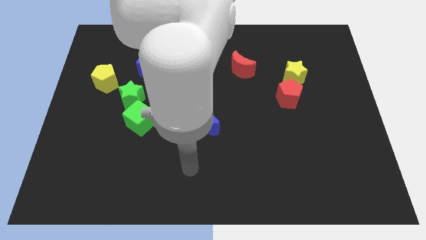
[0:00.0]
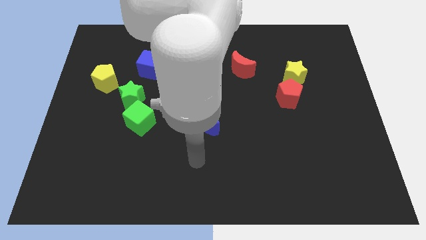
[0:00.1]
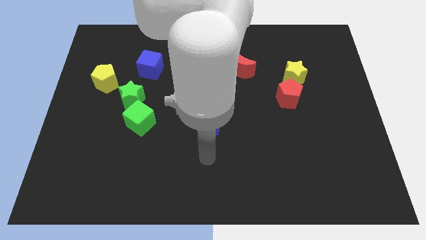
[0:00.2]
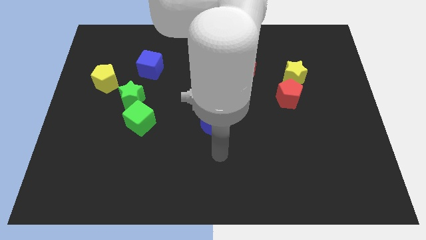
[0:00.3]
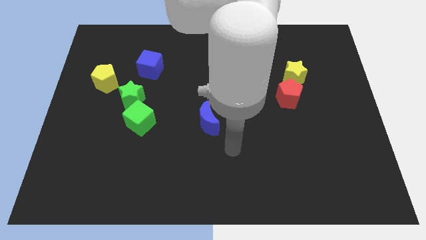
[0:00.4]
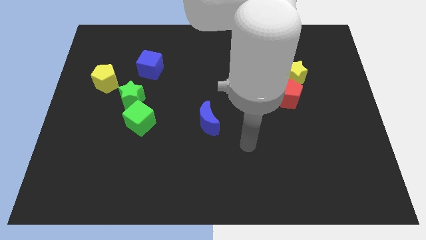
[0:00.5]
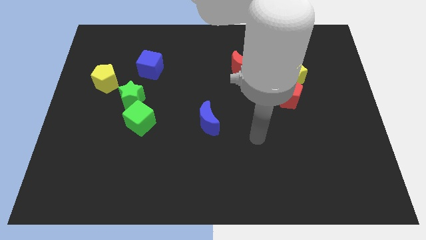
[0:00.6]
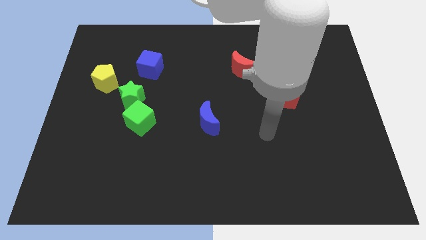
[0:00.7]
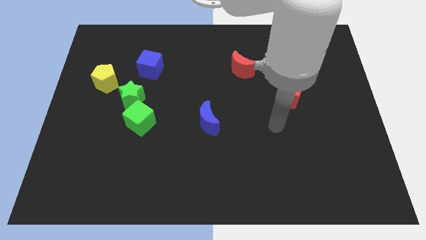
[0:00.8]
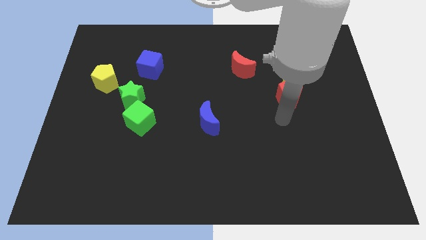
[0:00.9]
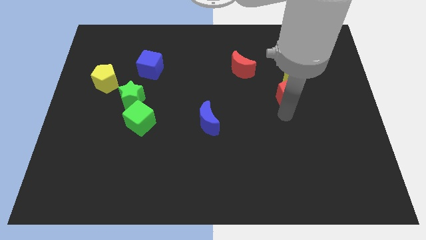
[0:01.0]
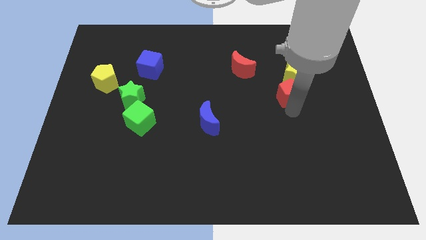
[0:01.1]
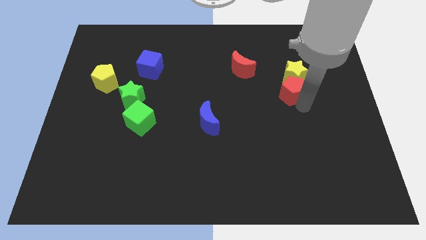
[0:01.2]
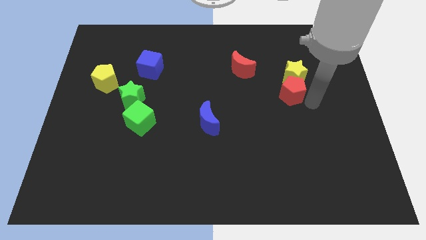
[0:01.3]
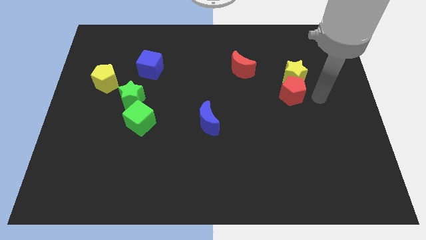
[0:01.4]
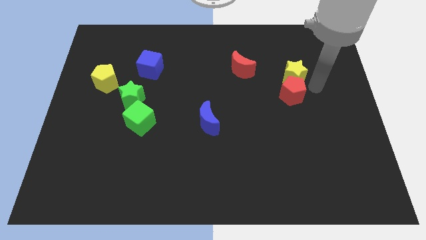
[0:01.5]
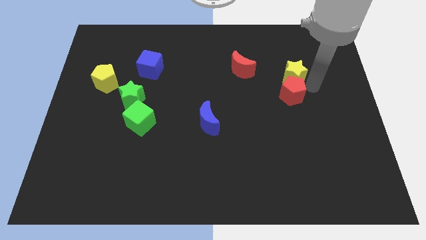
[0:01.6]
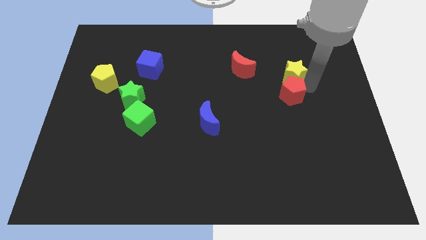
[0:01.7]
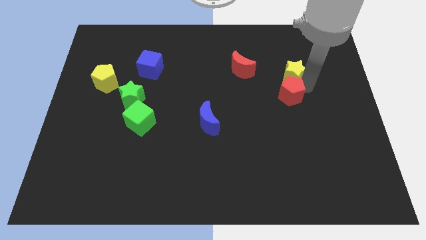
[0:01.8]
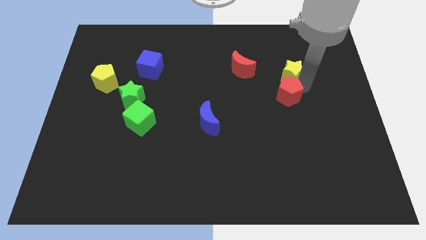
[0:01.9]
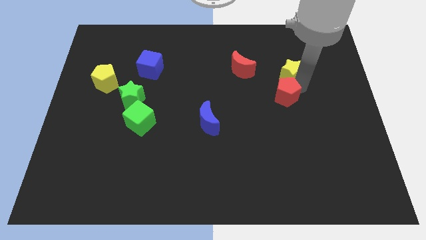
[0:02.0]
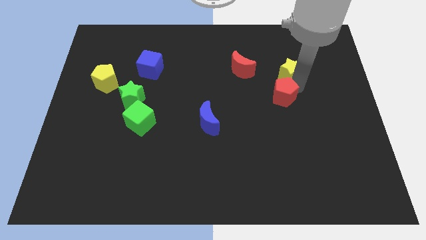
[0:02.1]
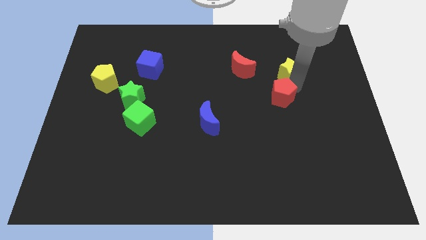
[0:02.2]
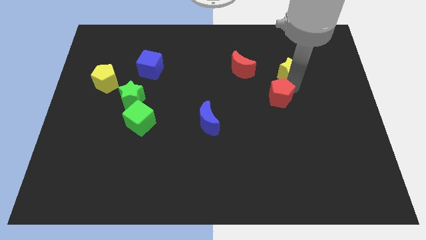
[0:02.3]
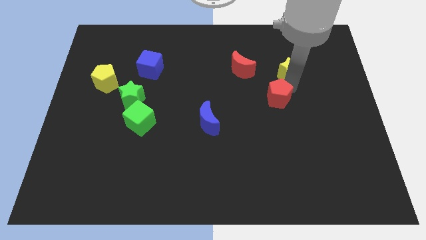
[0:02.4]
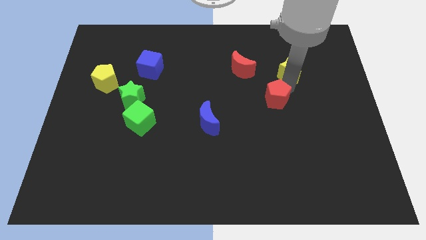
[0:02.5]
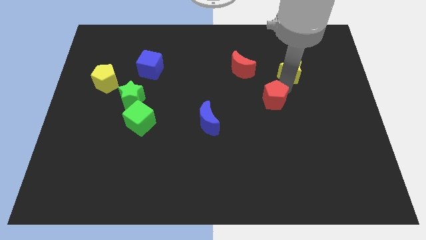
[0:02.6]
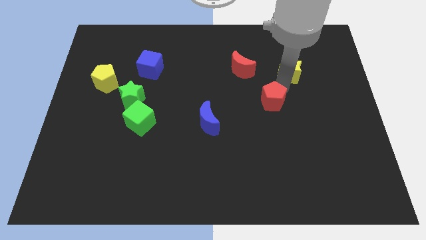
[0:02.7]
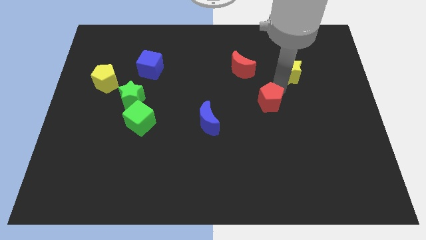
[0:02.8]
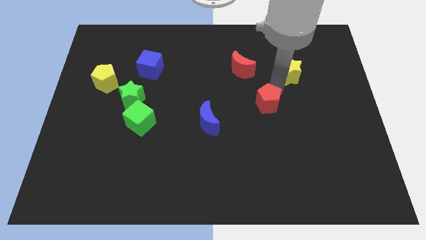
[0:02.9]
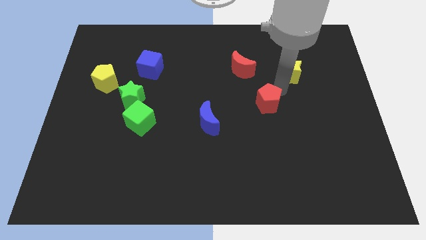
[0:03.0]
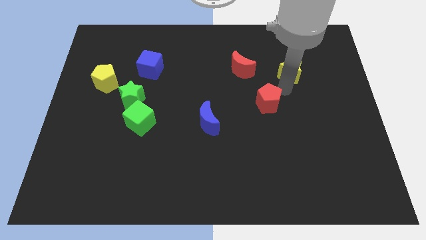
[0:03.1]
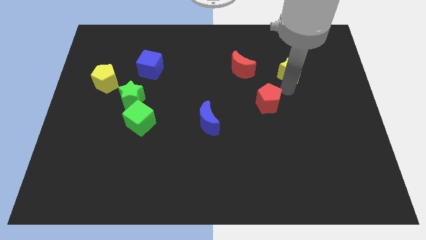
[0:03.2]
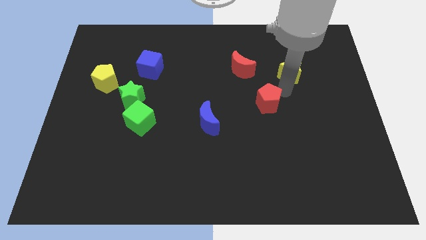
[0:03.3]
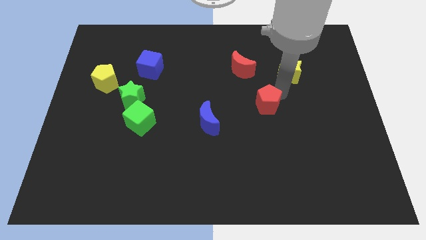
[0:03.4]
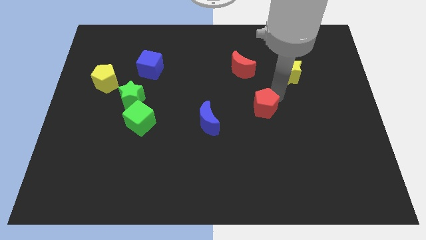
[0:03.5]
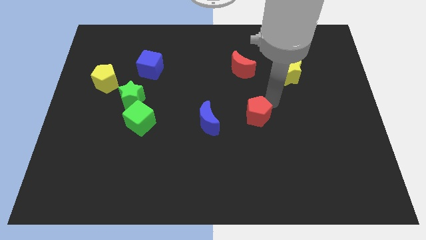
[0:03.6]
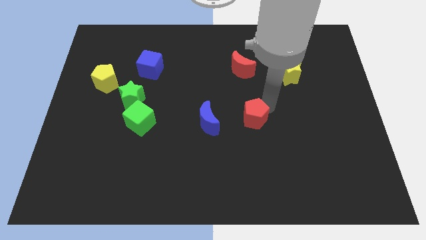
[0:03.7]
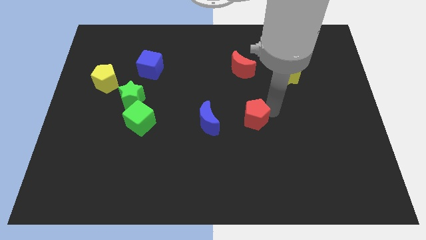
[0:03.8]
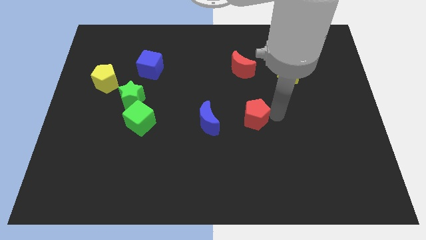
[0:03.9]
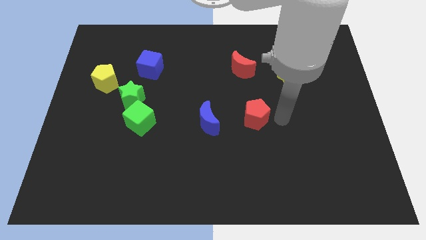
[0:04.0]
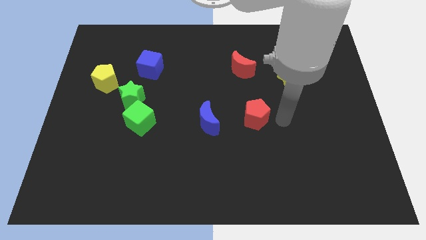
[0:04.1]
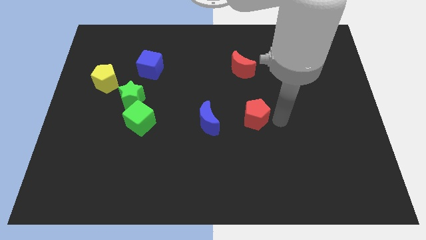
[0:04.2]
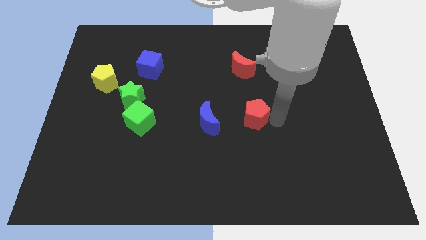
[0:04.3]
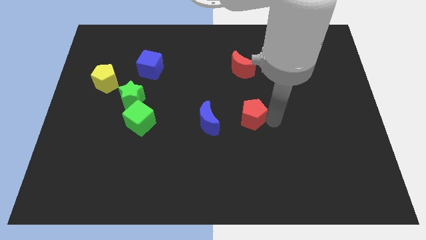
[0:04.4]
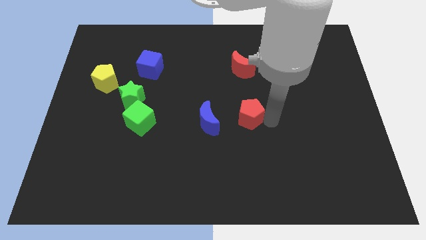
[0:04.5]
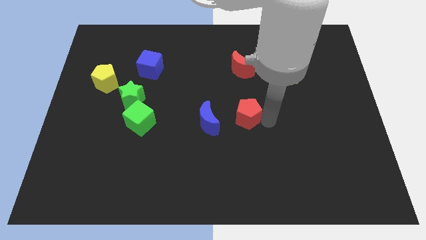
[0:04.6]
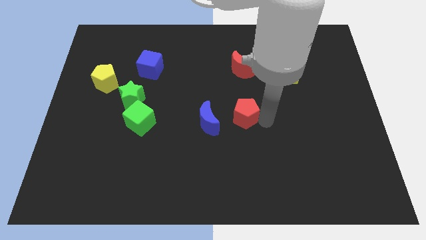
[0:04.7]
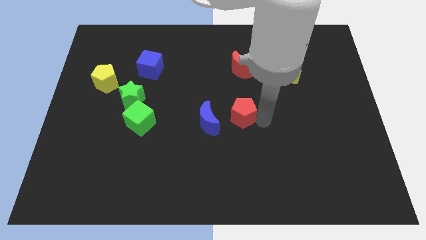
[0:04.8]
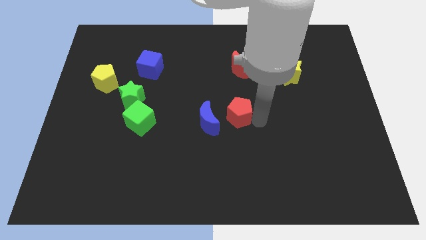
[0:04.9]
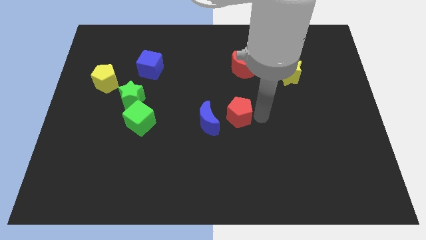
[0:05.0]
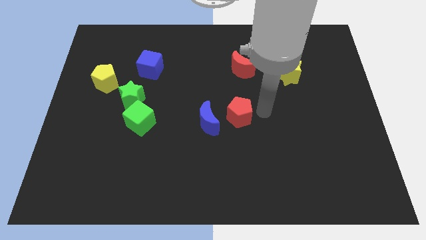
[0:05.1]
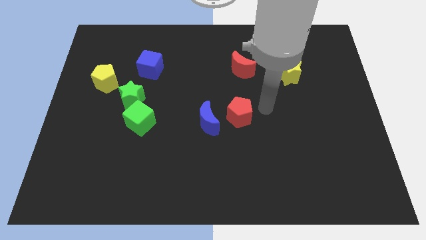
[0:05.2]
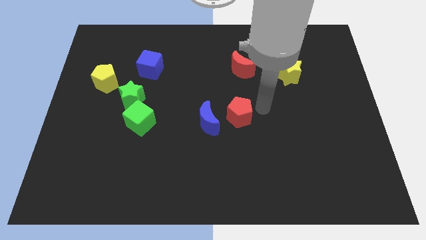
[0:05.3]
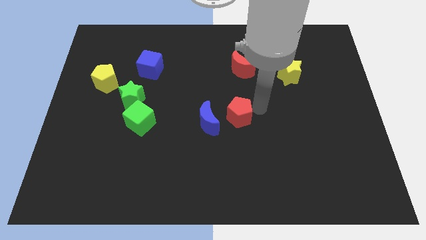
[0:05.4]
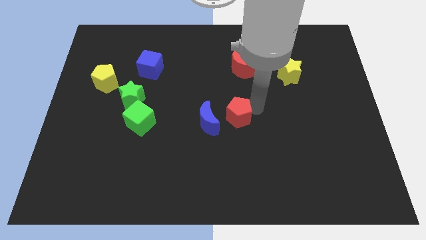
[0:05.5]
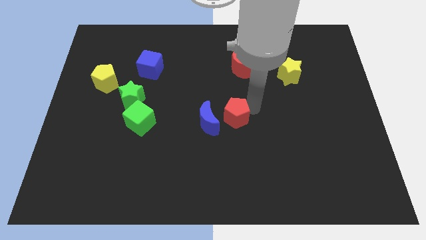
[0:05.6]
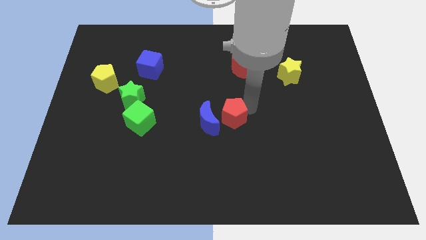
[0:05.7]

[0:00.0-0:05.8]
slide the red pentagon next to the blue moon

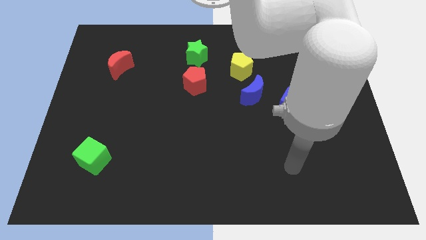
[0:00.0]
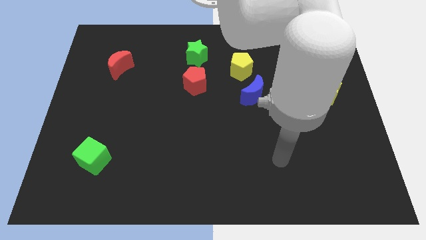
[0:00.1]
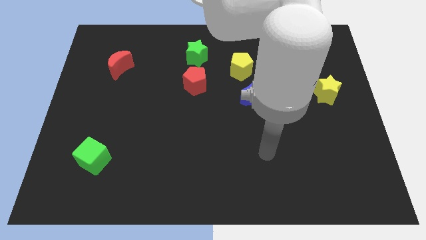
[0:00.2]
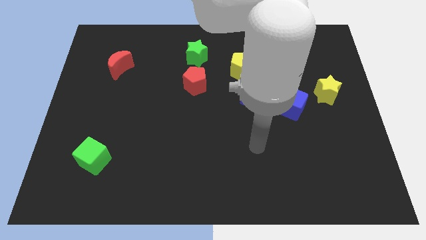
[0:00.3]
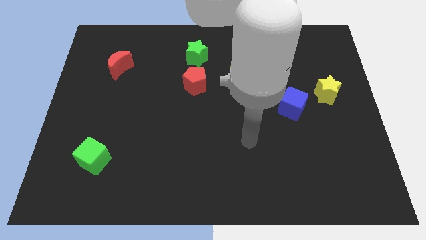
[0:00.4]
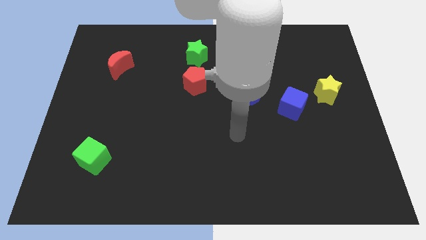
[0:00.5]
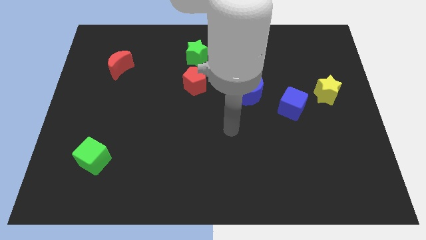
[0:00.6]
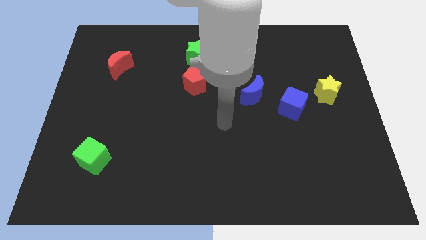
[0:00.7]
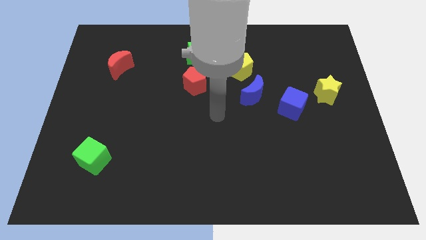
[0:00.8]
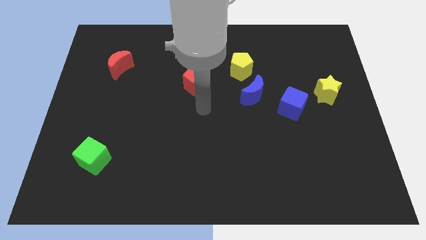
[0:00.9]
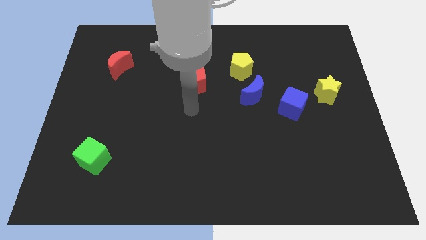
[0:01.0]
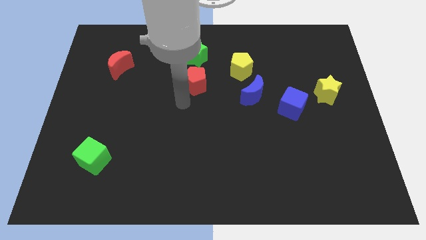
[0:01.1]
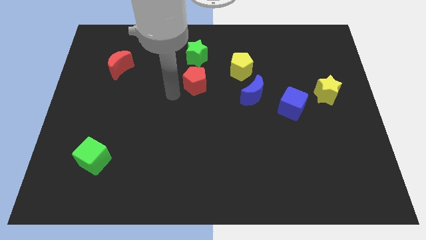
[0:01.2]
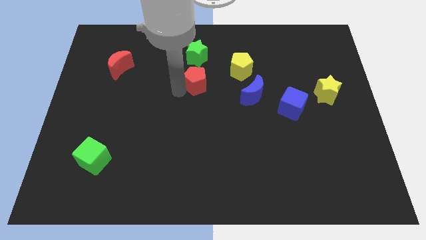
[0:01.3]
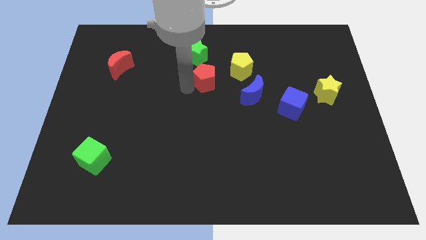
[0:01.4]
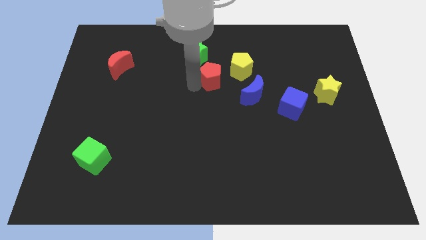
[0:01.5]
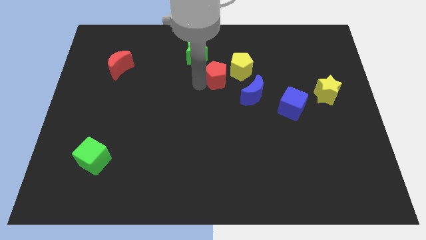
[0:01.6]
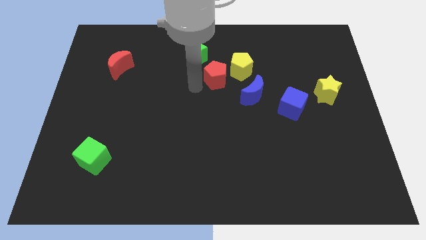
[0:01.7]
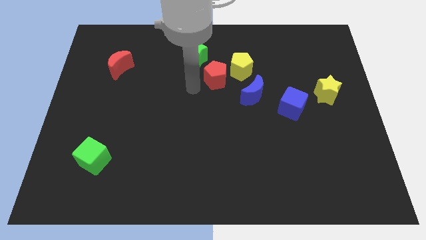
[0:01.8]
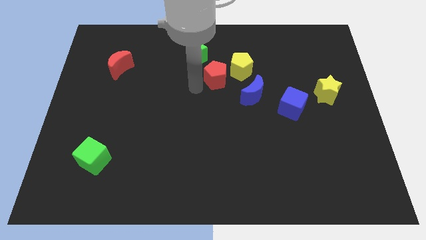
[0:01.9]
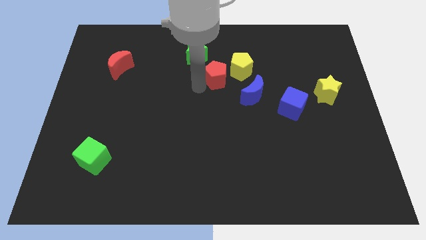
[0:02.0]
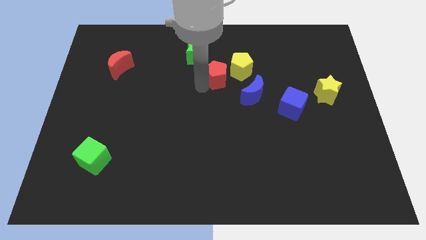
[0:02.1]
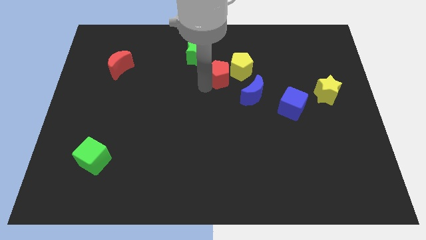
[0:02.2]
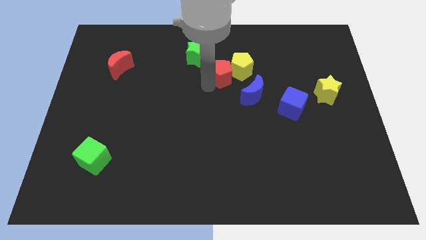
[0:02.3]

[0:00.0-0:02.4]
slide the red pentagon next to the yellow pentagon
